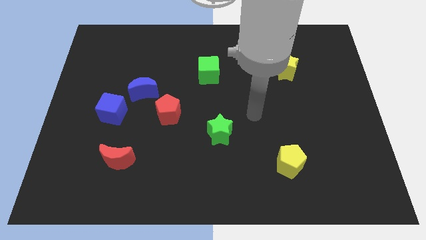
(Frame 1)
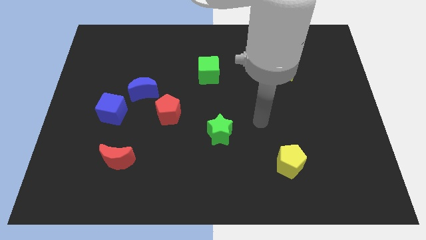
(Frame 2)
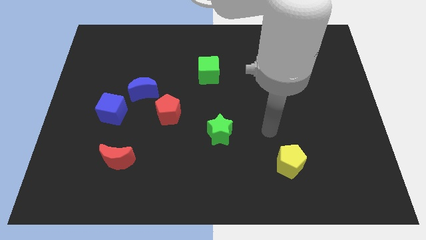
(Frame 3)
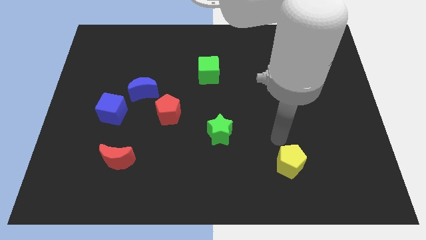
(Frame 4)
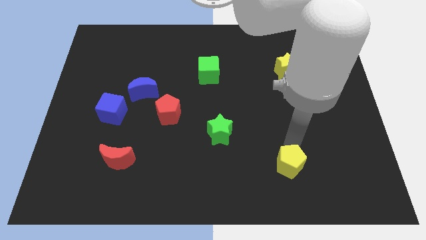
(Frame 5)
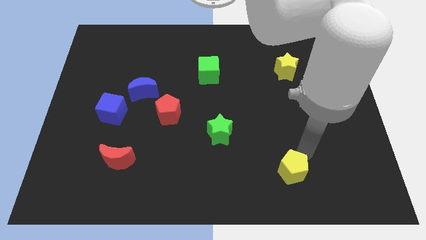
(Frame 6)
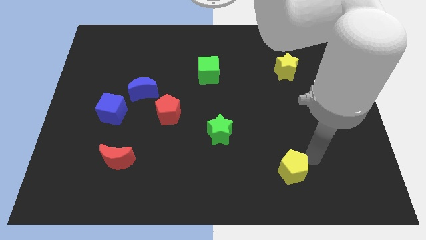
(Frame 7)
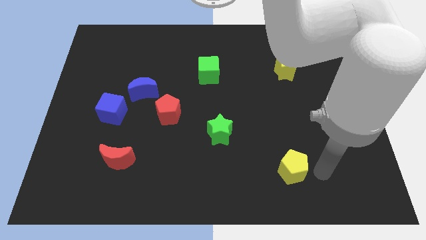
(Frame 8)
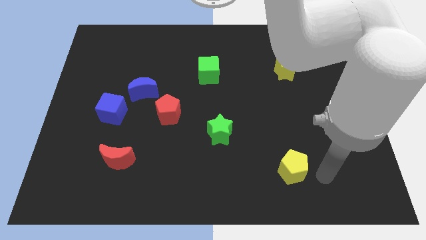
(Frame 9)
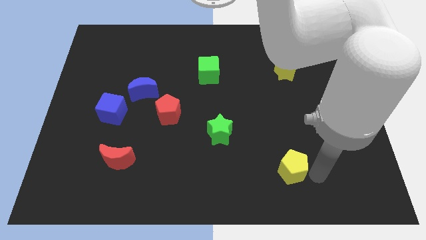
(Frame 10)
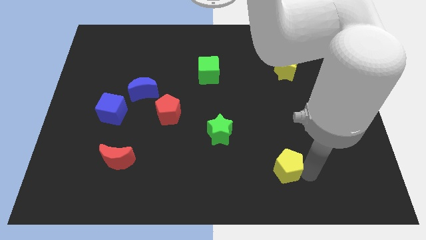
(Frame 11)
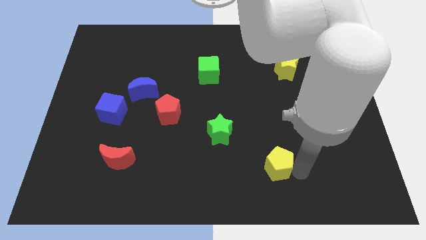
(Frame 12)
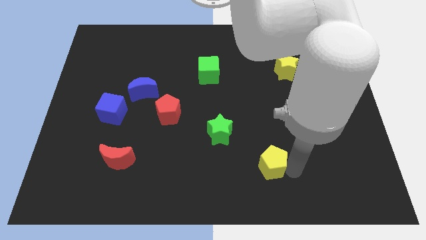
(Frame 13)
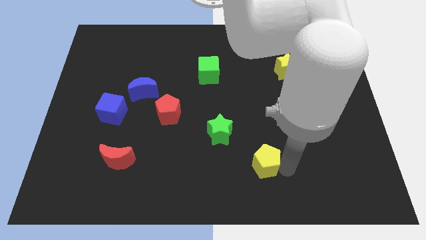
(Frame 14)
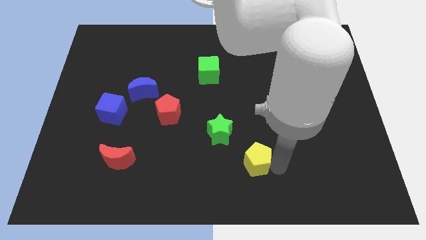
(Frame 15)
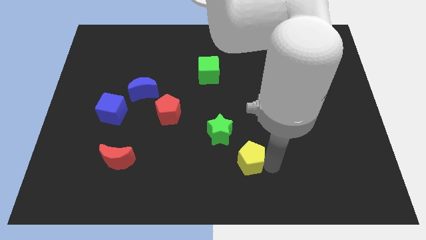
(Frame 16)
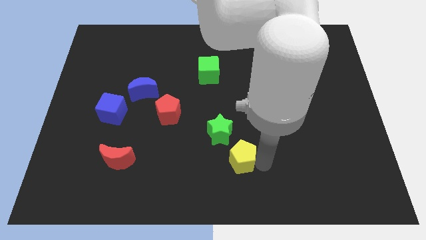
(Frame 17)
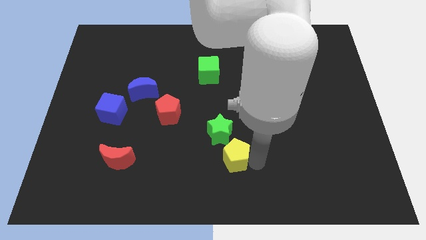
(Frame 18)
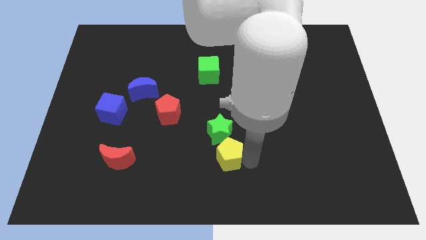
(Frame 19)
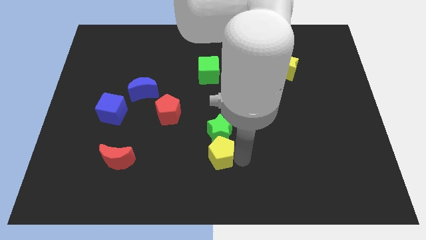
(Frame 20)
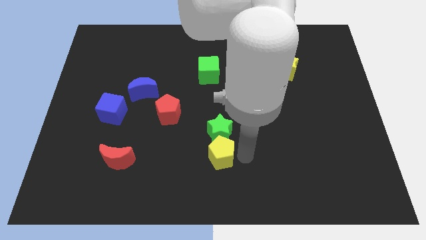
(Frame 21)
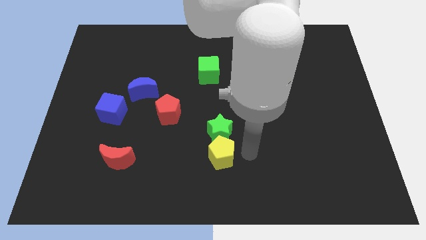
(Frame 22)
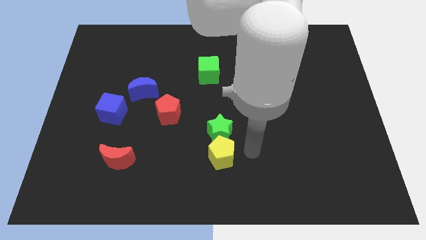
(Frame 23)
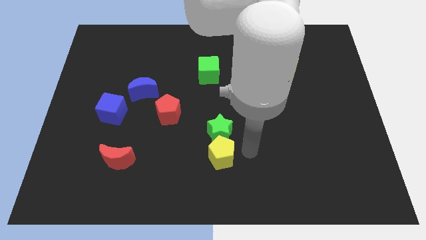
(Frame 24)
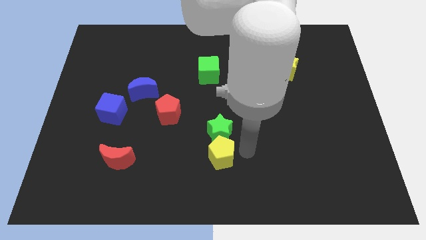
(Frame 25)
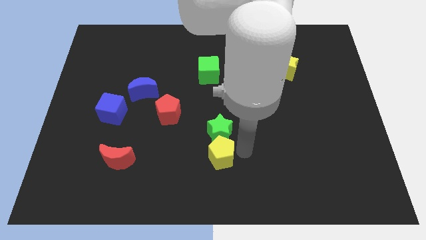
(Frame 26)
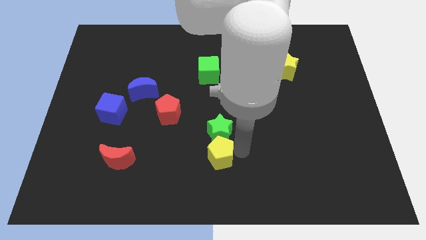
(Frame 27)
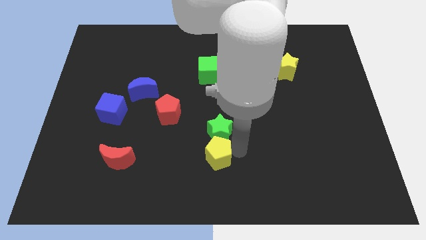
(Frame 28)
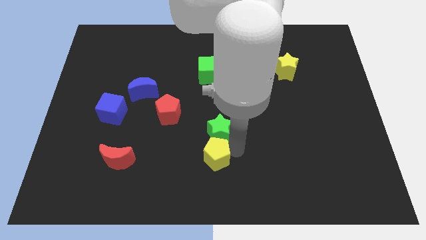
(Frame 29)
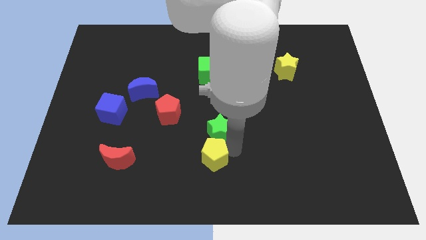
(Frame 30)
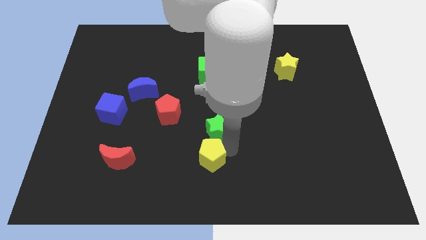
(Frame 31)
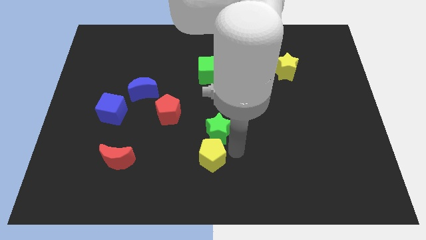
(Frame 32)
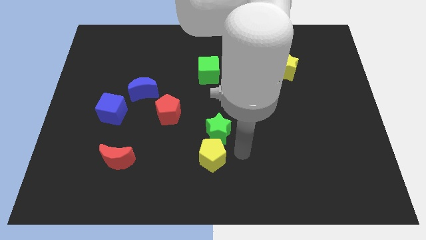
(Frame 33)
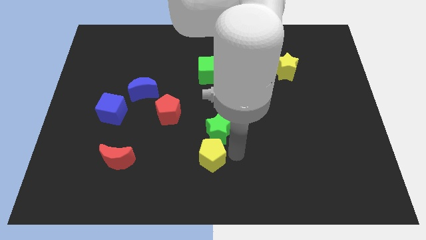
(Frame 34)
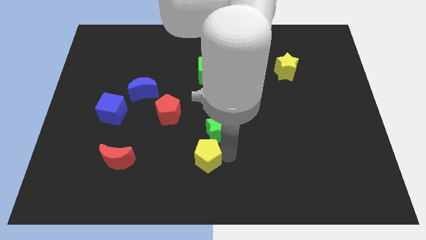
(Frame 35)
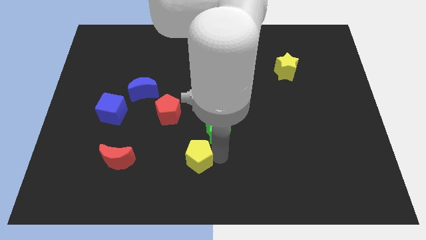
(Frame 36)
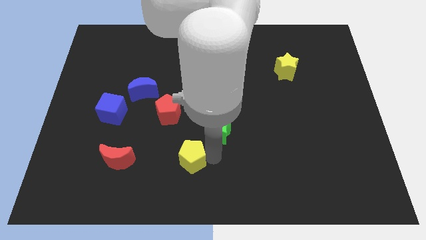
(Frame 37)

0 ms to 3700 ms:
push the yellow pentagon to the left

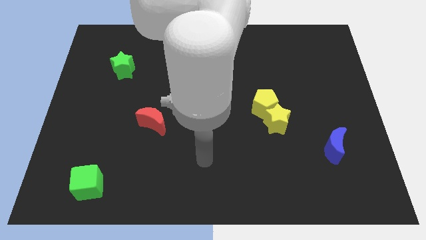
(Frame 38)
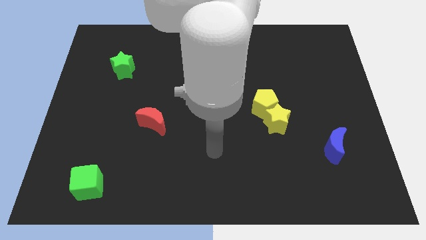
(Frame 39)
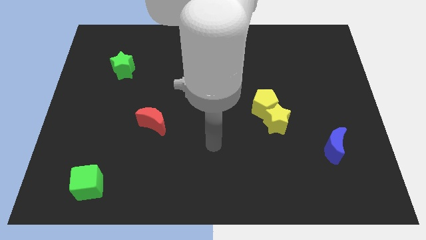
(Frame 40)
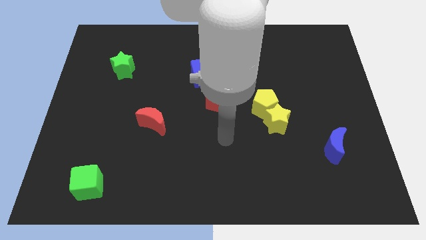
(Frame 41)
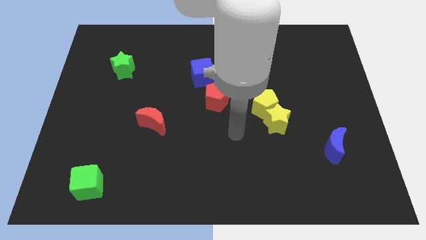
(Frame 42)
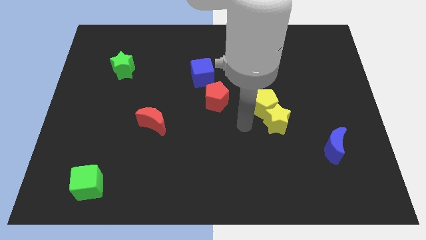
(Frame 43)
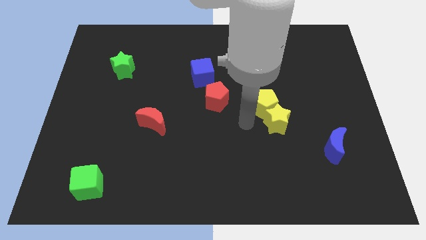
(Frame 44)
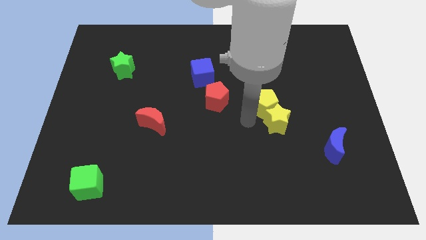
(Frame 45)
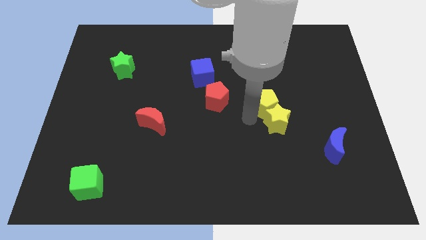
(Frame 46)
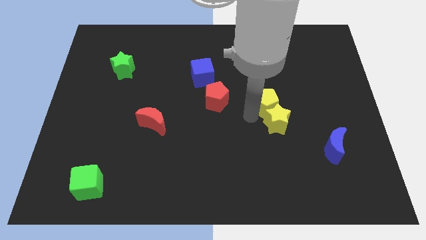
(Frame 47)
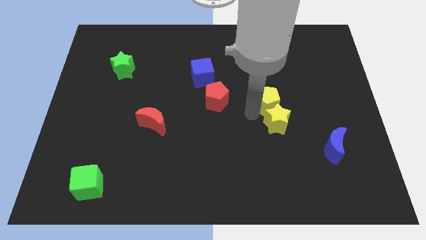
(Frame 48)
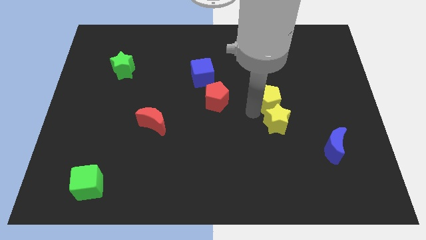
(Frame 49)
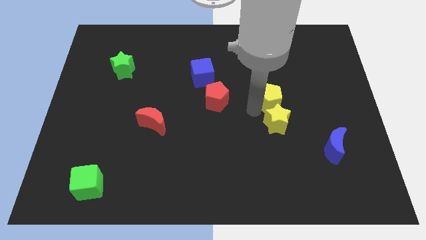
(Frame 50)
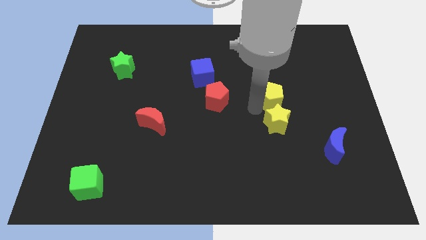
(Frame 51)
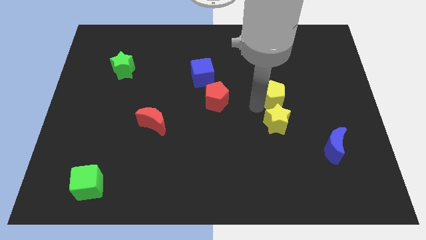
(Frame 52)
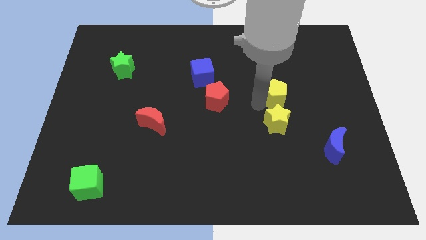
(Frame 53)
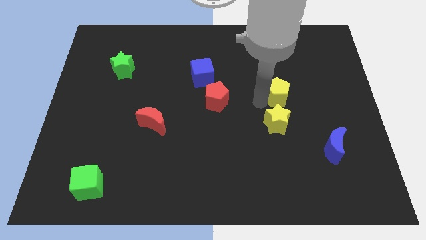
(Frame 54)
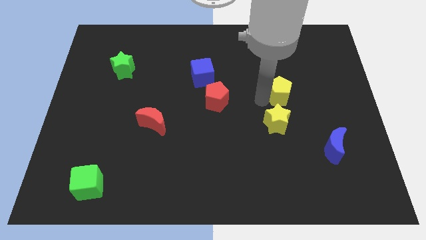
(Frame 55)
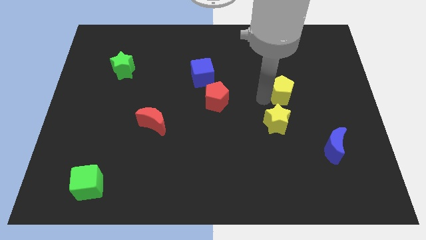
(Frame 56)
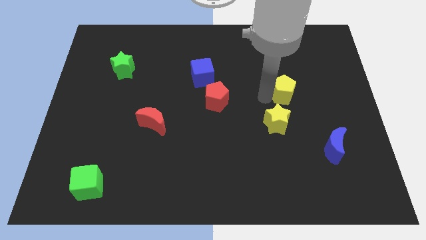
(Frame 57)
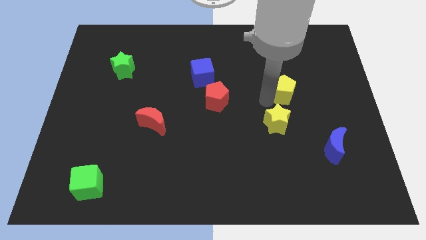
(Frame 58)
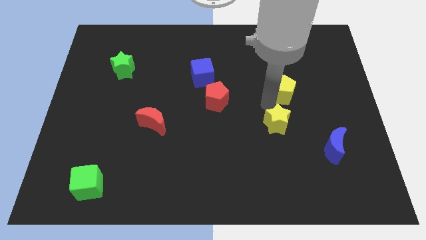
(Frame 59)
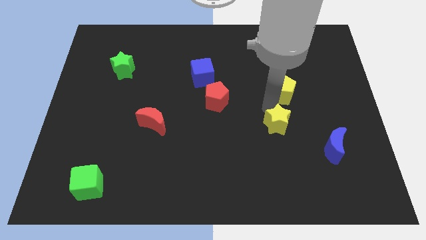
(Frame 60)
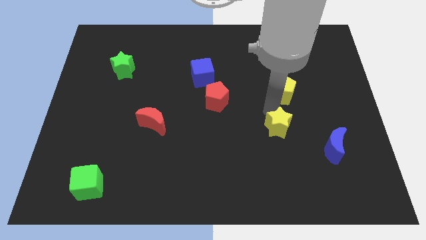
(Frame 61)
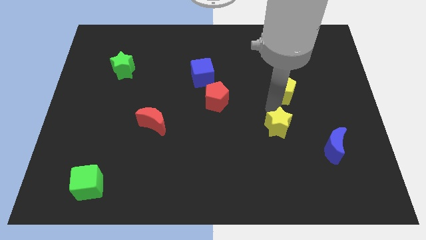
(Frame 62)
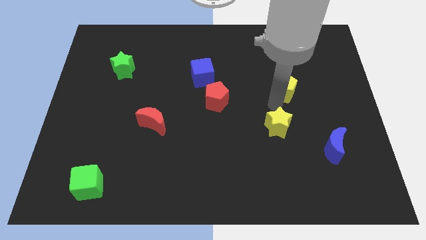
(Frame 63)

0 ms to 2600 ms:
move the yellow pentagon a bit up and then to the right

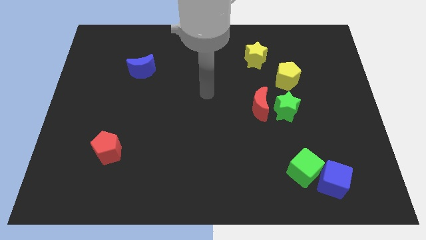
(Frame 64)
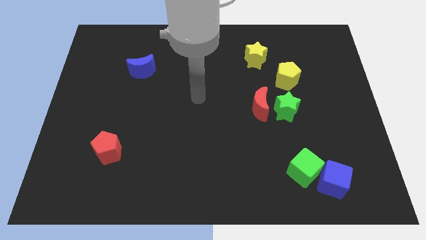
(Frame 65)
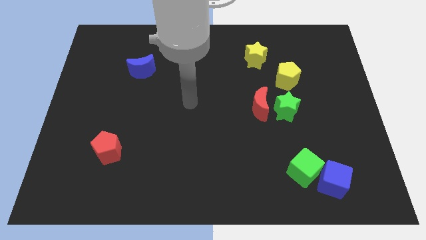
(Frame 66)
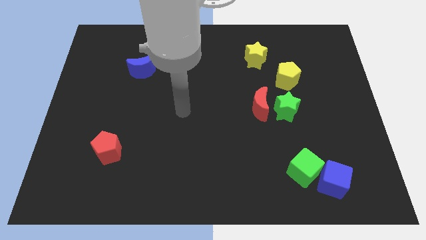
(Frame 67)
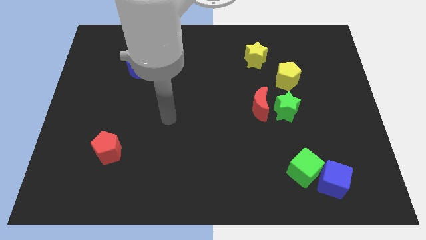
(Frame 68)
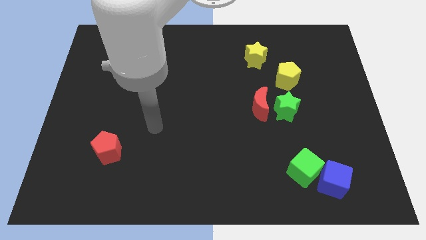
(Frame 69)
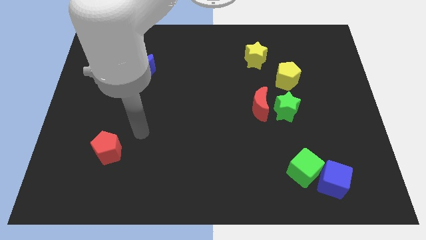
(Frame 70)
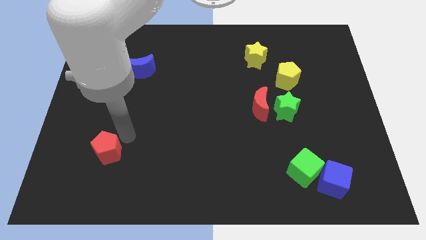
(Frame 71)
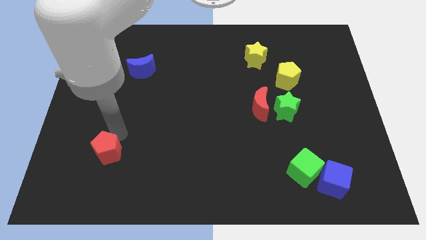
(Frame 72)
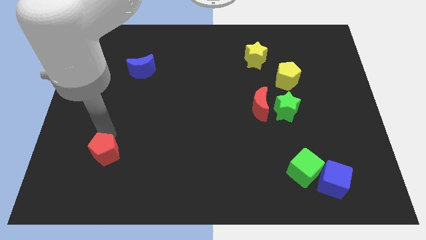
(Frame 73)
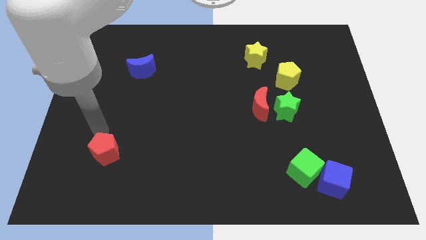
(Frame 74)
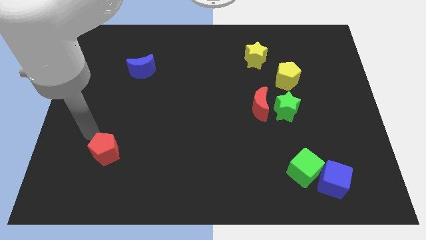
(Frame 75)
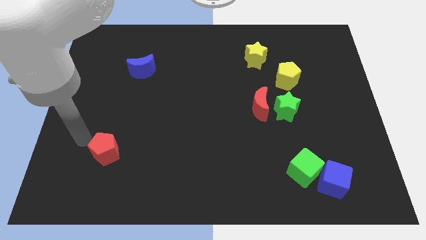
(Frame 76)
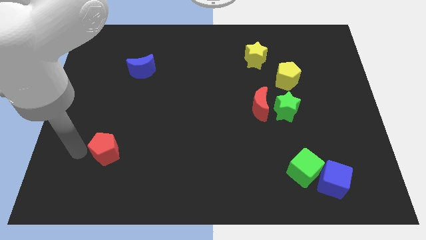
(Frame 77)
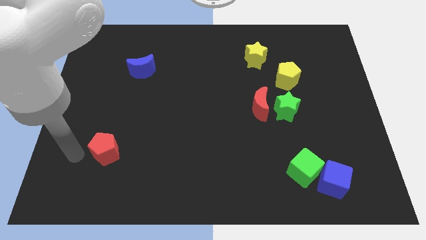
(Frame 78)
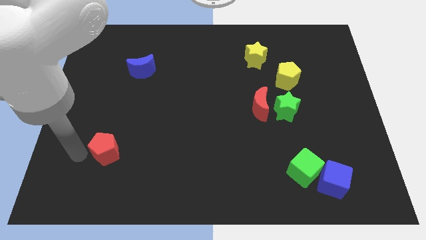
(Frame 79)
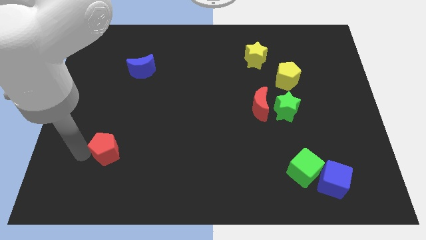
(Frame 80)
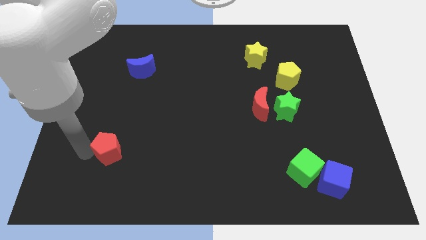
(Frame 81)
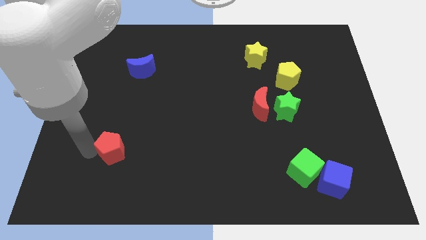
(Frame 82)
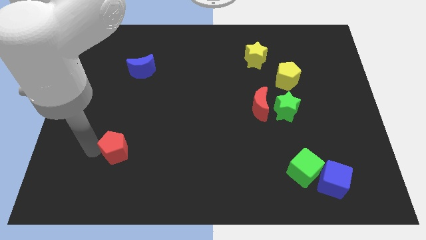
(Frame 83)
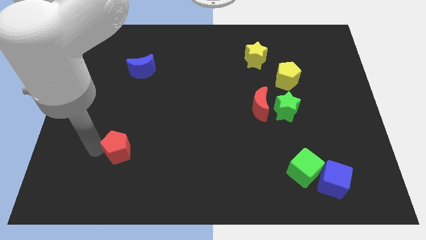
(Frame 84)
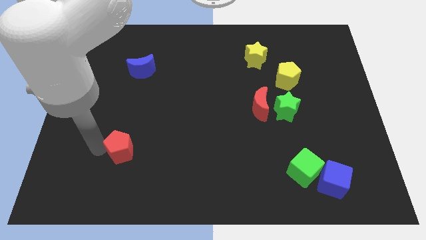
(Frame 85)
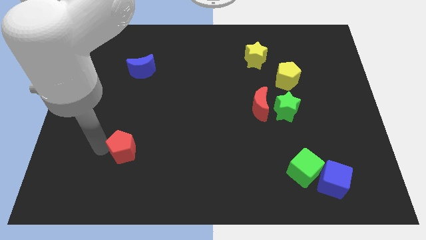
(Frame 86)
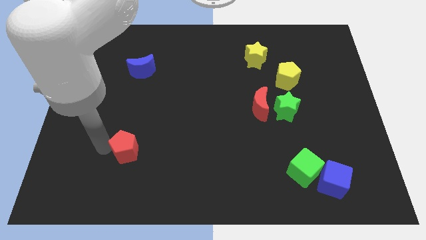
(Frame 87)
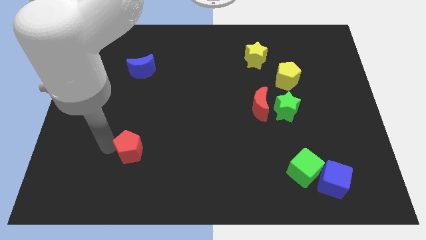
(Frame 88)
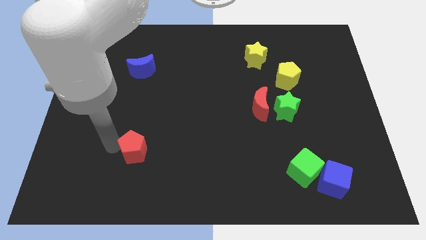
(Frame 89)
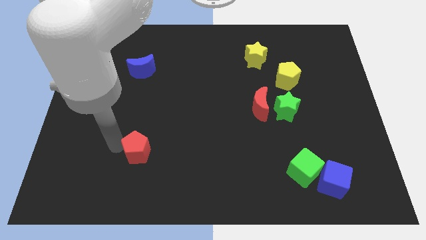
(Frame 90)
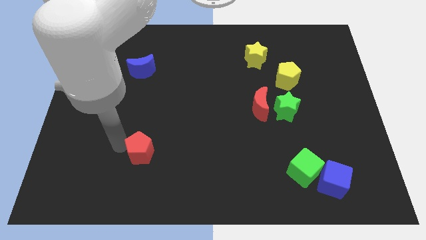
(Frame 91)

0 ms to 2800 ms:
move the red pentagon to the right somewhat
